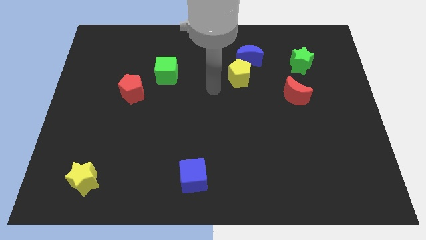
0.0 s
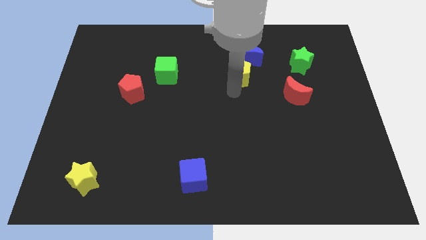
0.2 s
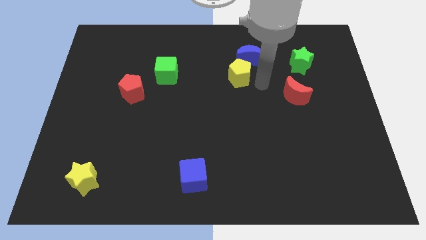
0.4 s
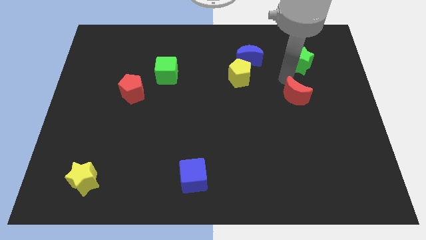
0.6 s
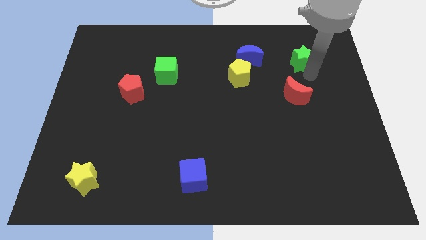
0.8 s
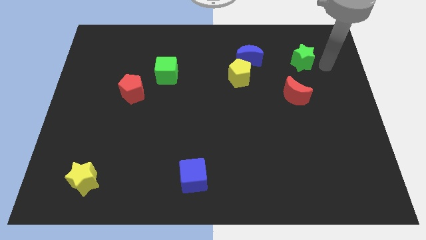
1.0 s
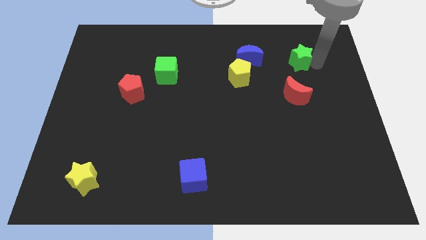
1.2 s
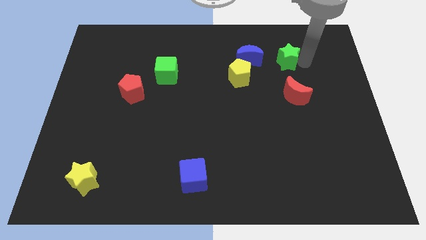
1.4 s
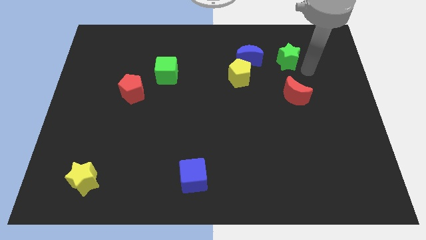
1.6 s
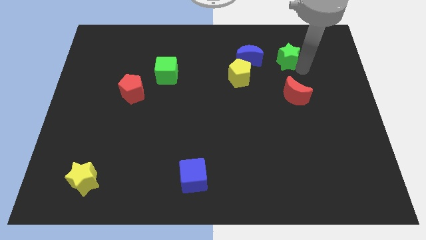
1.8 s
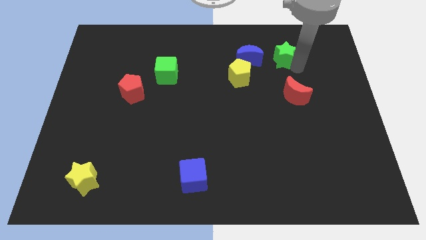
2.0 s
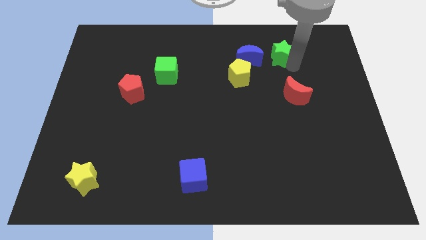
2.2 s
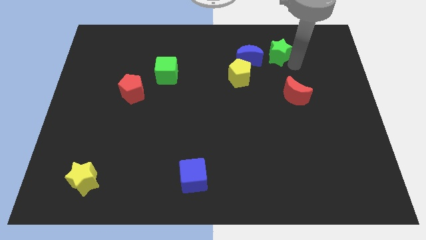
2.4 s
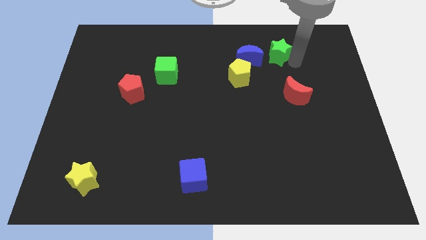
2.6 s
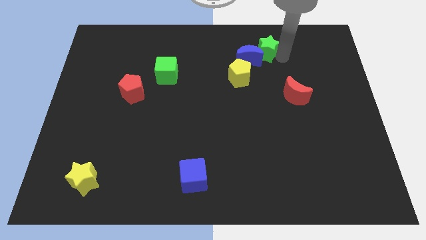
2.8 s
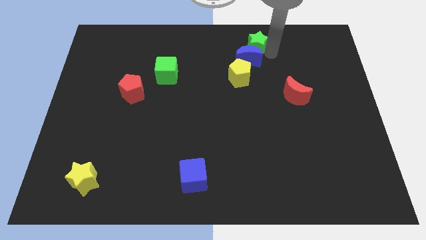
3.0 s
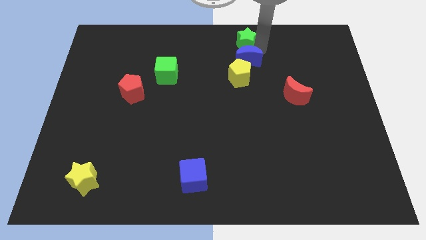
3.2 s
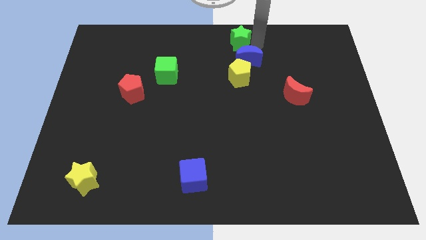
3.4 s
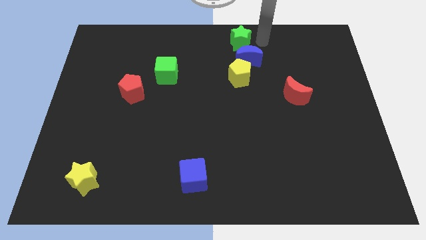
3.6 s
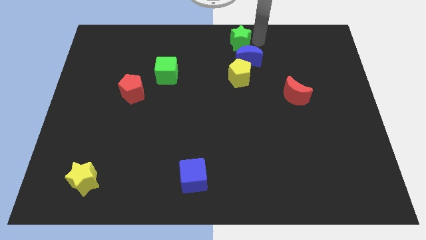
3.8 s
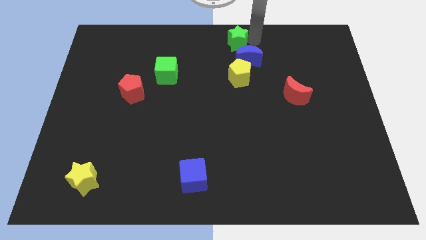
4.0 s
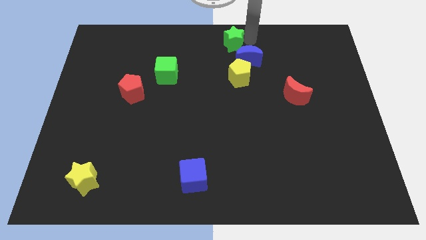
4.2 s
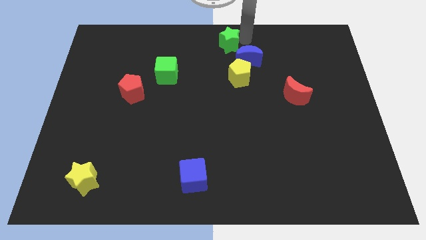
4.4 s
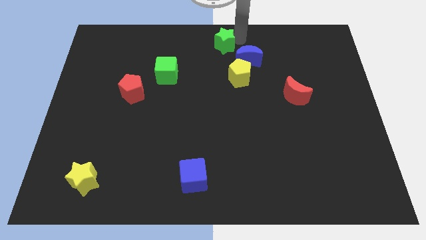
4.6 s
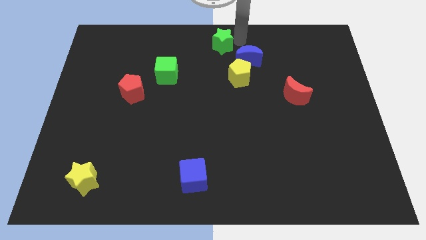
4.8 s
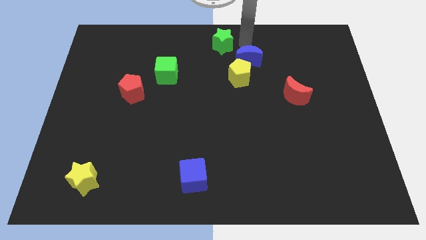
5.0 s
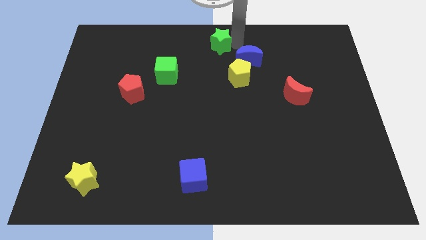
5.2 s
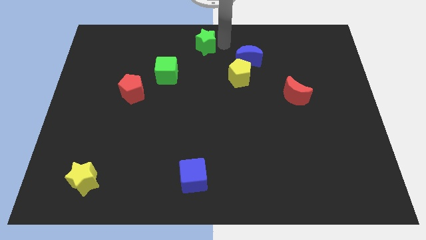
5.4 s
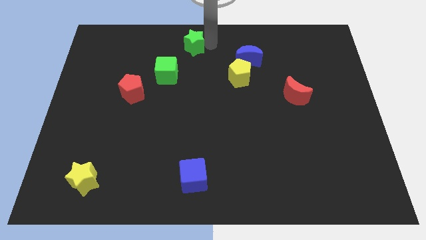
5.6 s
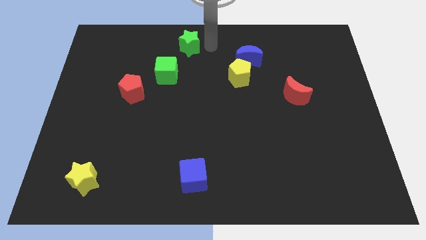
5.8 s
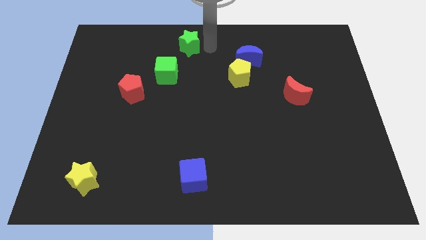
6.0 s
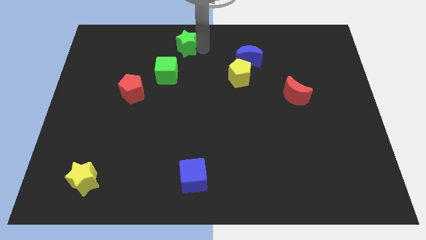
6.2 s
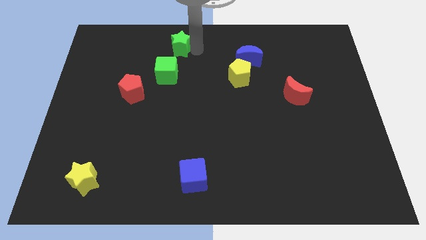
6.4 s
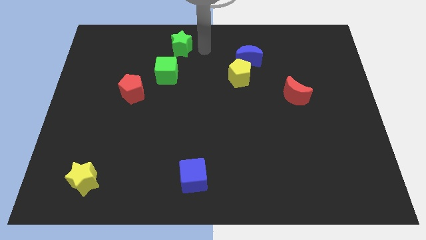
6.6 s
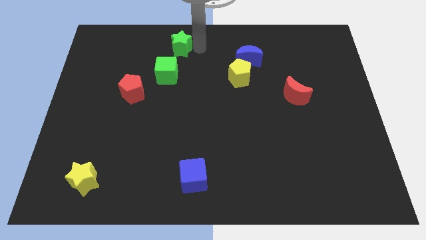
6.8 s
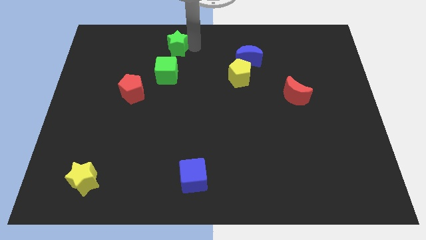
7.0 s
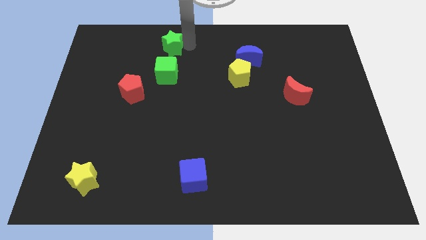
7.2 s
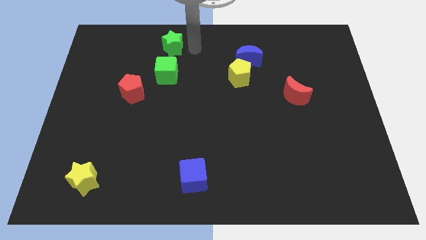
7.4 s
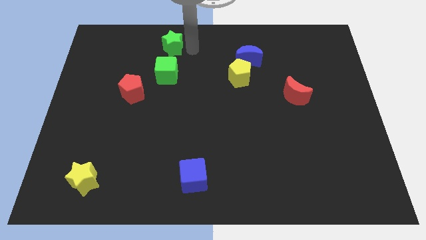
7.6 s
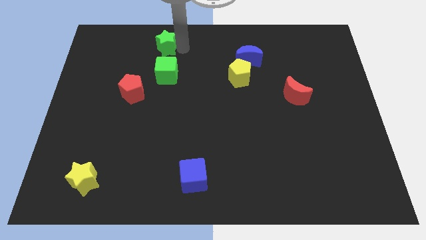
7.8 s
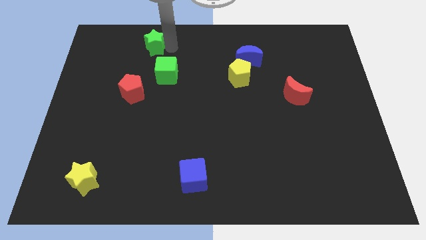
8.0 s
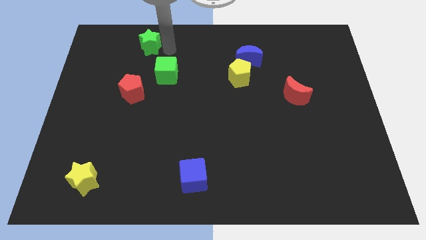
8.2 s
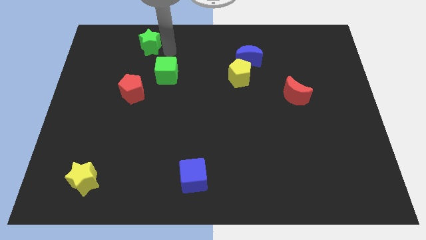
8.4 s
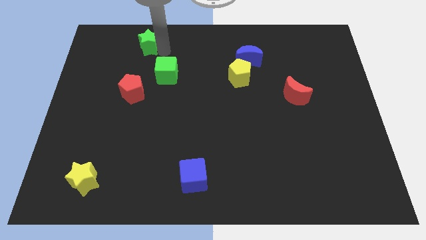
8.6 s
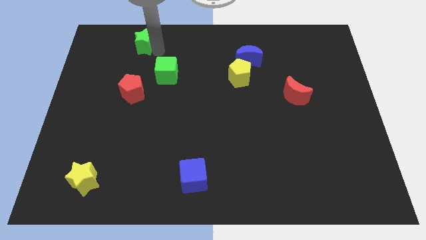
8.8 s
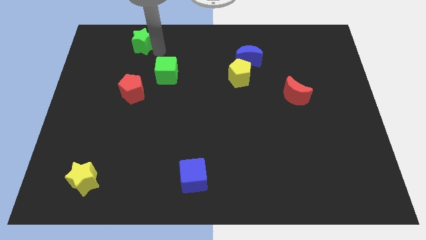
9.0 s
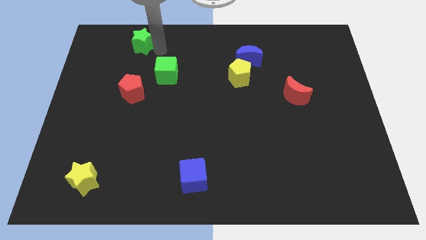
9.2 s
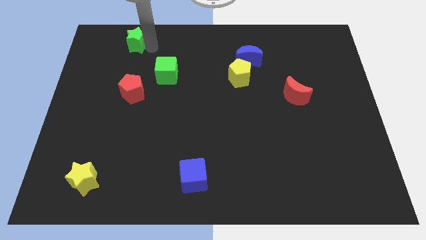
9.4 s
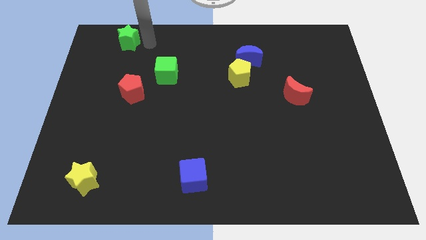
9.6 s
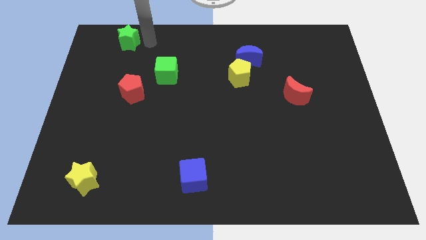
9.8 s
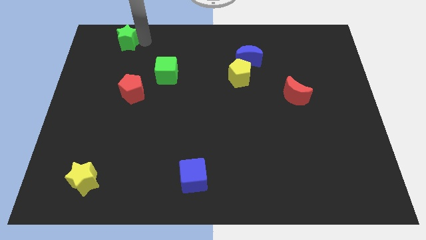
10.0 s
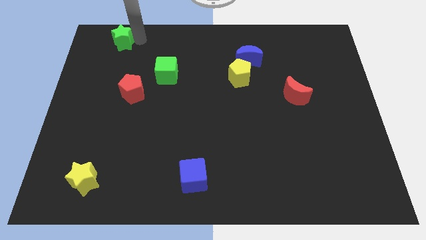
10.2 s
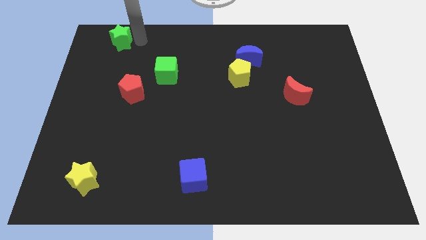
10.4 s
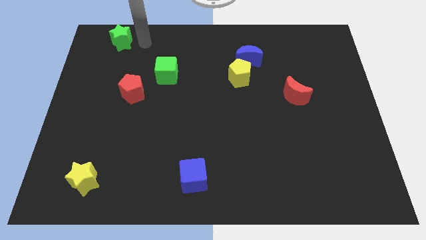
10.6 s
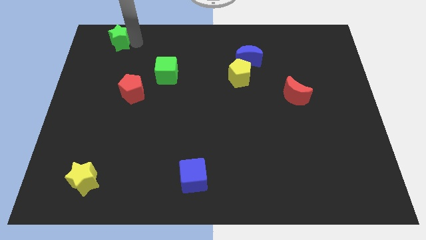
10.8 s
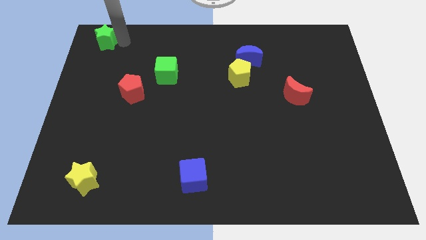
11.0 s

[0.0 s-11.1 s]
move the green star to the top left of the board

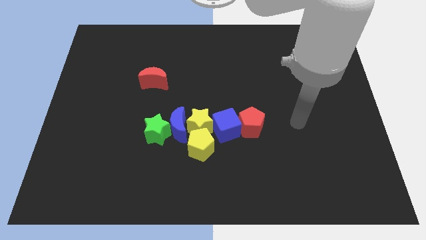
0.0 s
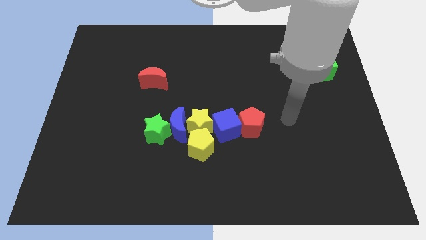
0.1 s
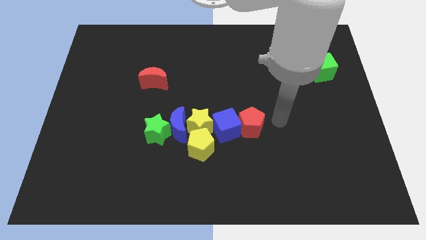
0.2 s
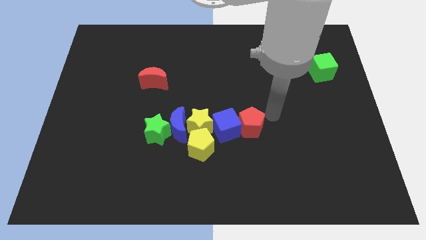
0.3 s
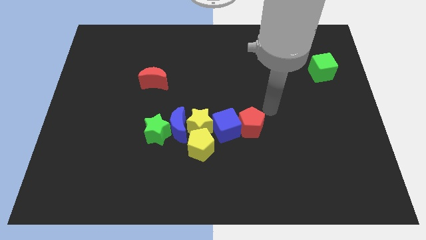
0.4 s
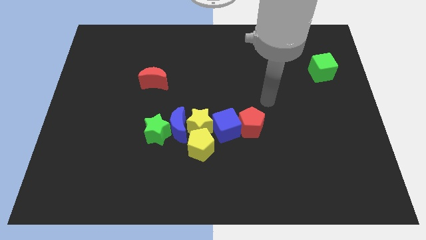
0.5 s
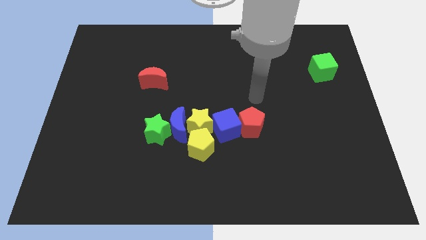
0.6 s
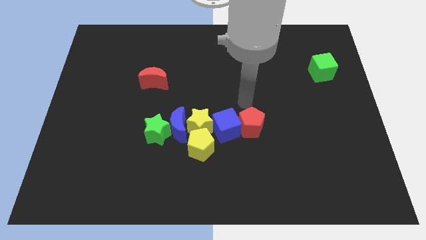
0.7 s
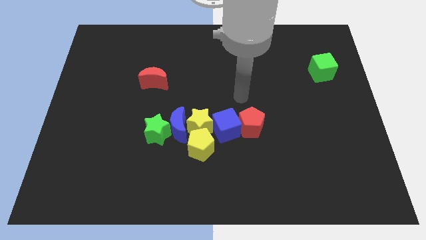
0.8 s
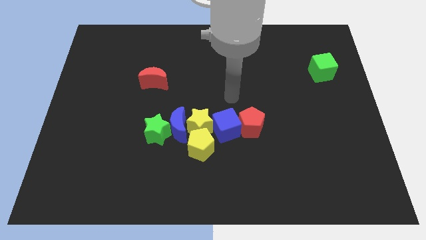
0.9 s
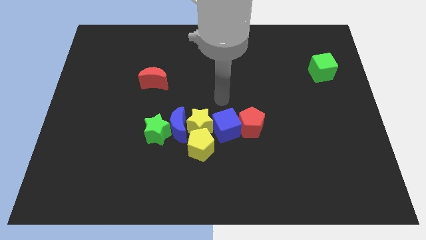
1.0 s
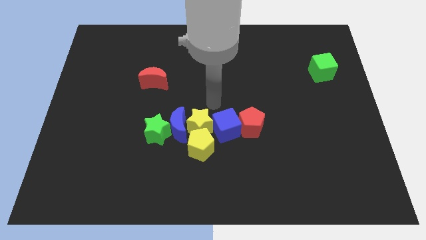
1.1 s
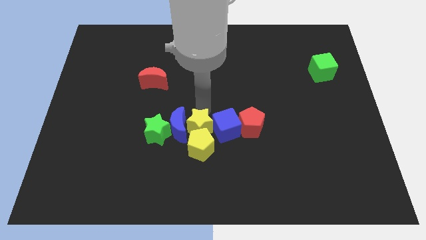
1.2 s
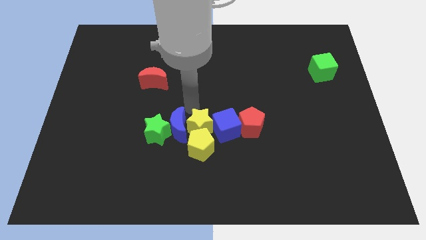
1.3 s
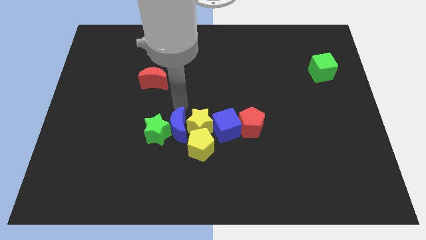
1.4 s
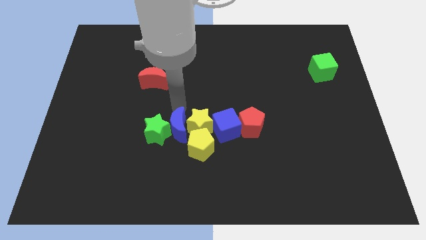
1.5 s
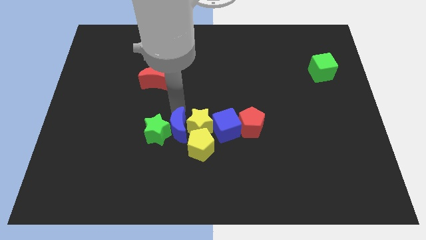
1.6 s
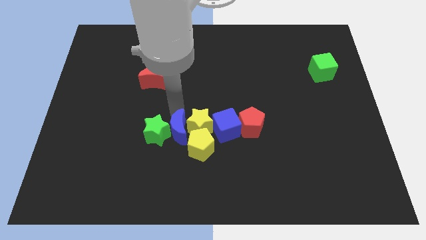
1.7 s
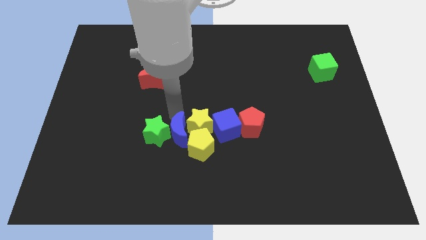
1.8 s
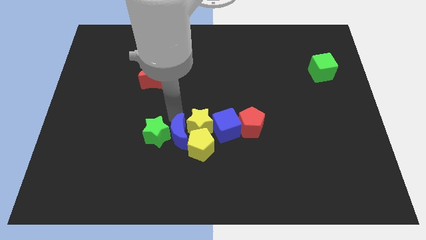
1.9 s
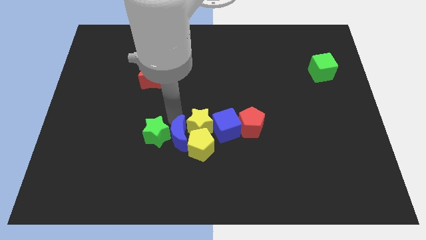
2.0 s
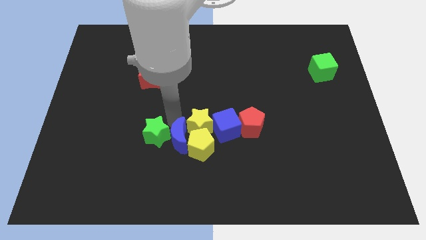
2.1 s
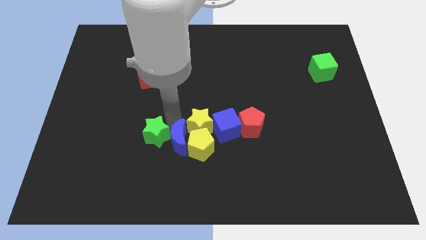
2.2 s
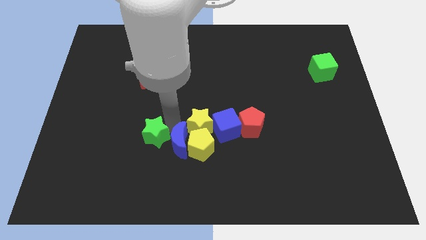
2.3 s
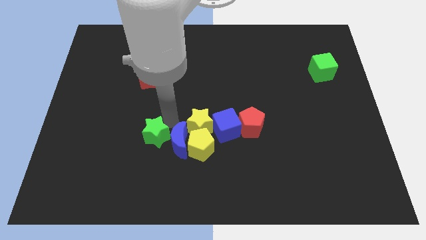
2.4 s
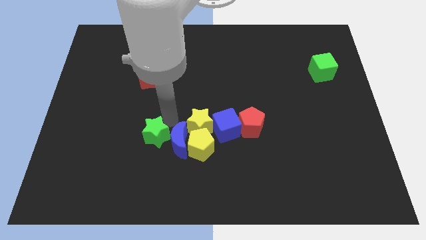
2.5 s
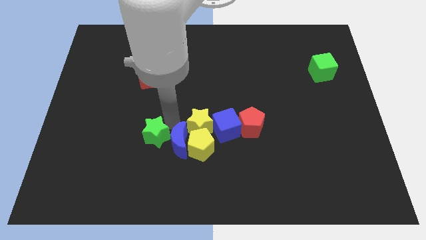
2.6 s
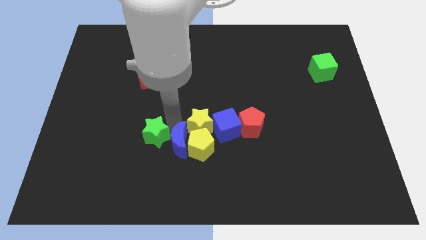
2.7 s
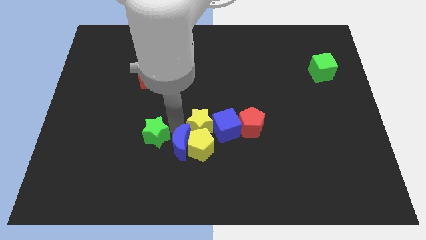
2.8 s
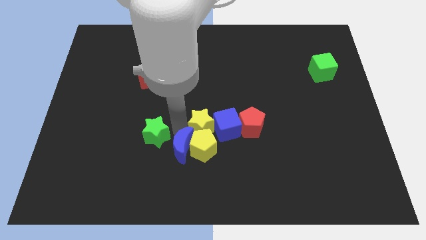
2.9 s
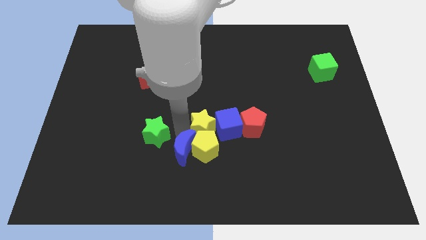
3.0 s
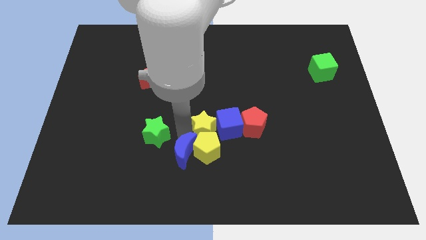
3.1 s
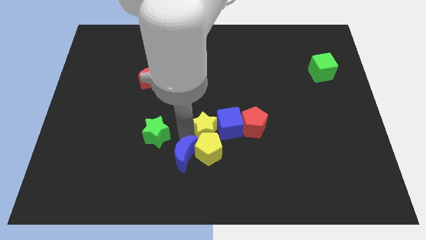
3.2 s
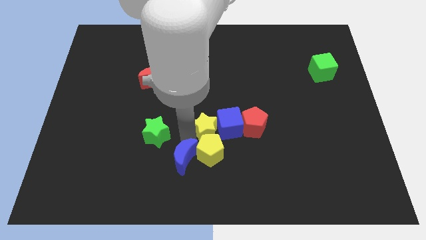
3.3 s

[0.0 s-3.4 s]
move the blue moon to the bottom
